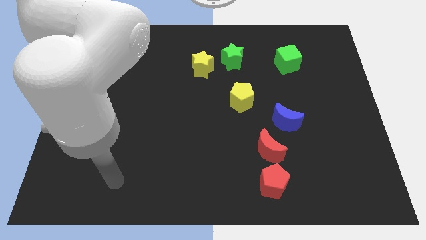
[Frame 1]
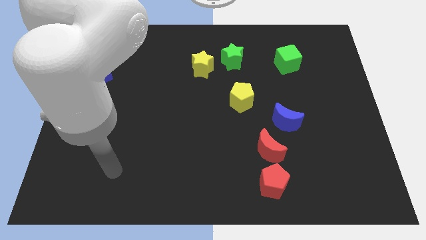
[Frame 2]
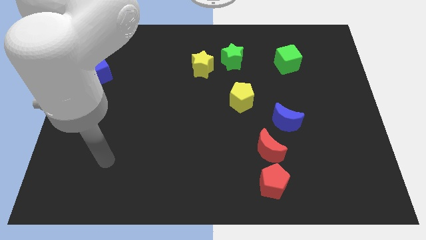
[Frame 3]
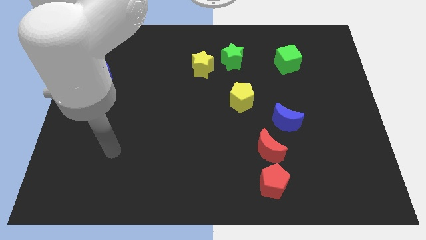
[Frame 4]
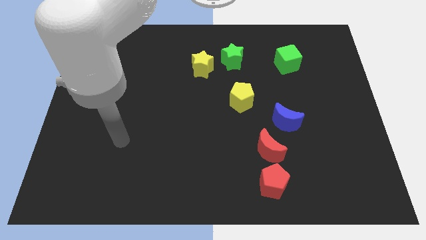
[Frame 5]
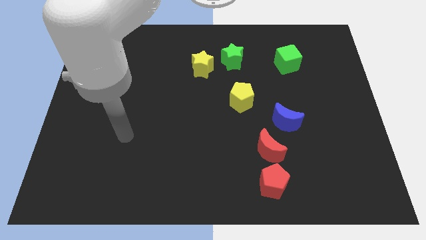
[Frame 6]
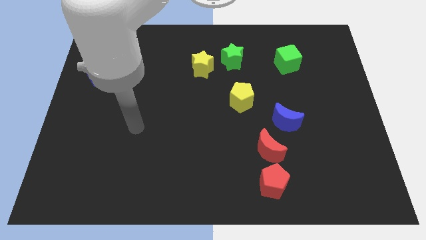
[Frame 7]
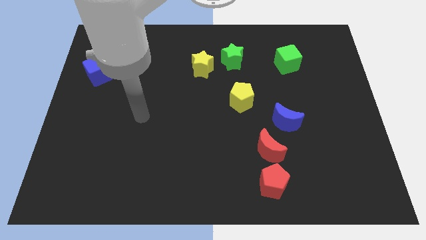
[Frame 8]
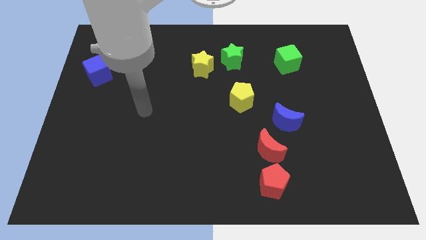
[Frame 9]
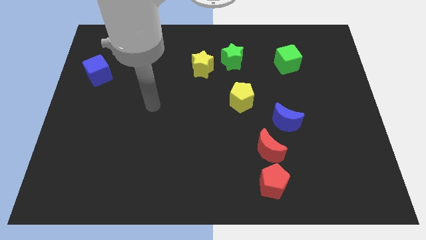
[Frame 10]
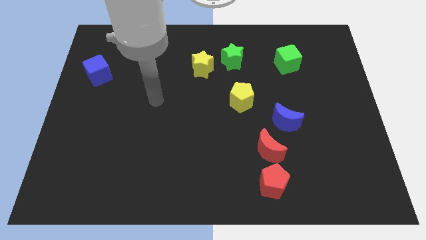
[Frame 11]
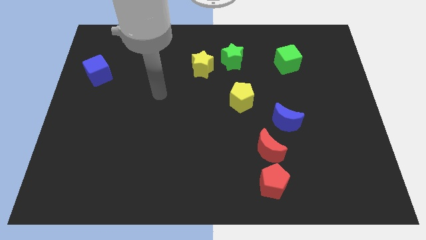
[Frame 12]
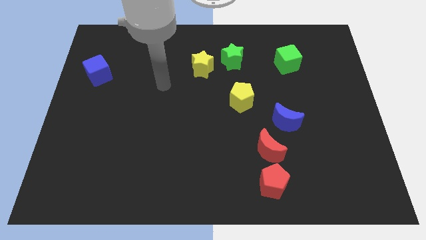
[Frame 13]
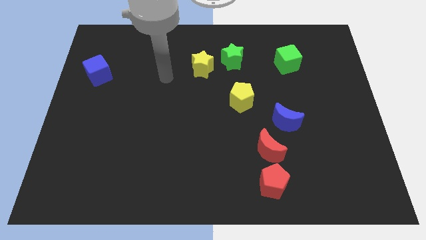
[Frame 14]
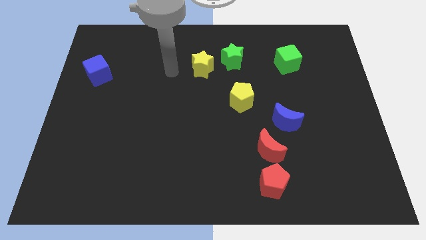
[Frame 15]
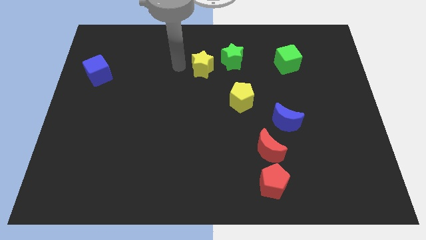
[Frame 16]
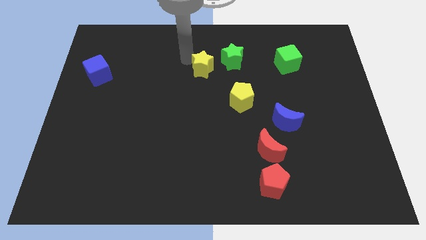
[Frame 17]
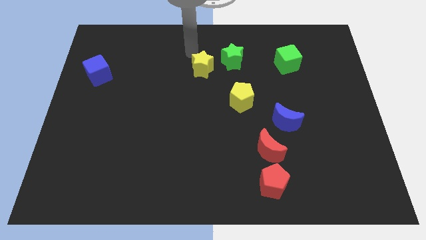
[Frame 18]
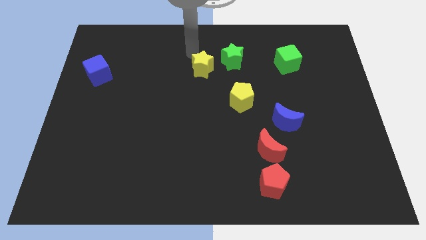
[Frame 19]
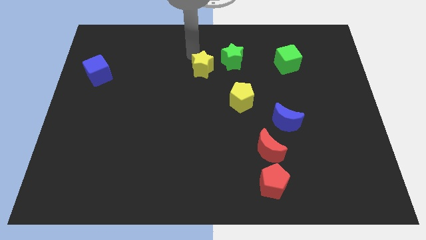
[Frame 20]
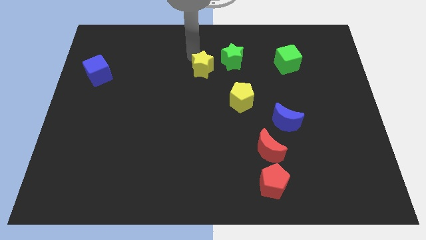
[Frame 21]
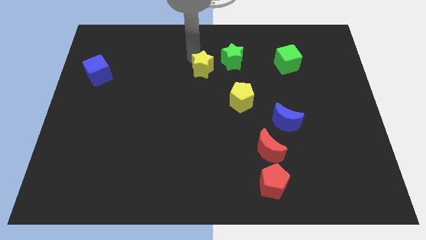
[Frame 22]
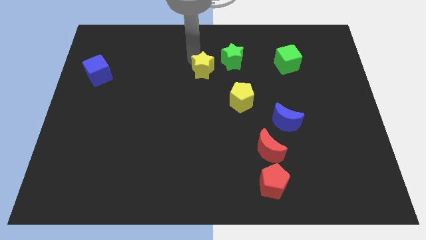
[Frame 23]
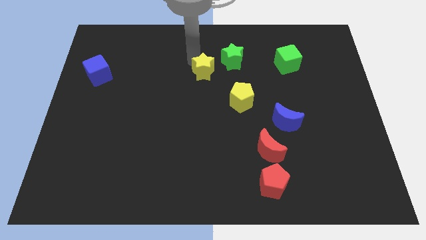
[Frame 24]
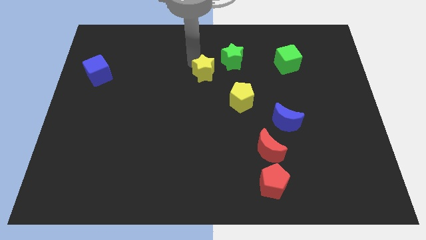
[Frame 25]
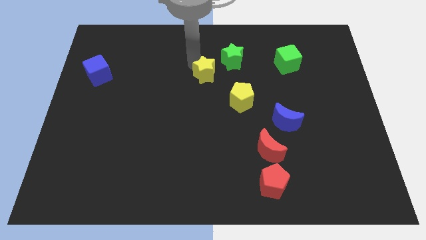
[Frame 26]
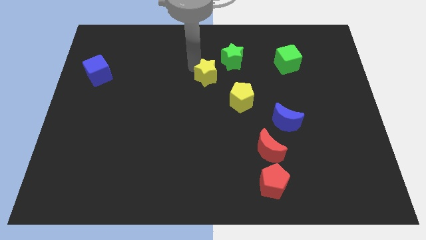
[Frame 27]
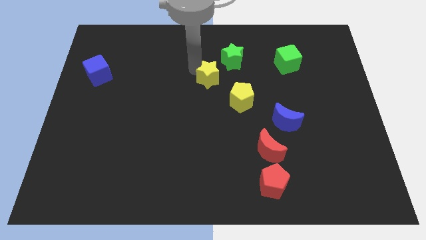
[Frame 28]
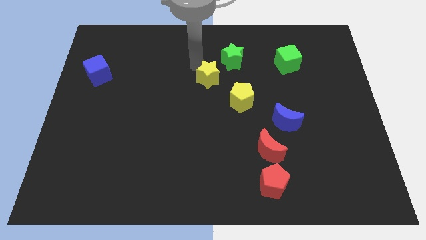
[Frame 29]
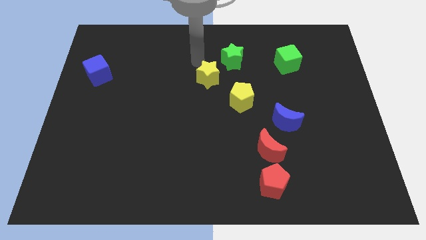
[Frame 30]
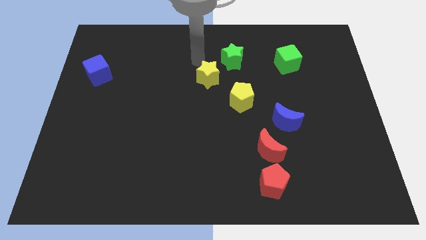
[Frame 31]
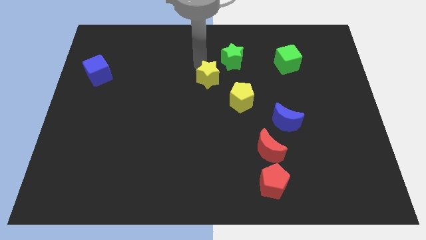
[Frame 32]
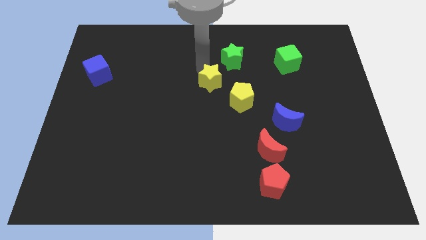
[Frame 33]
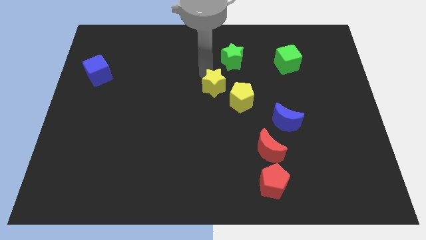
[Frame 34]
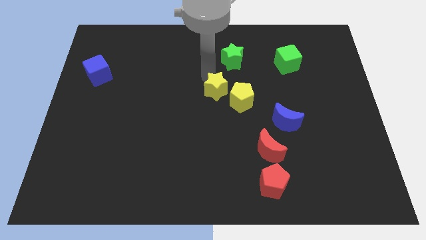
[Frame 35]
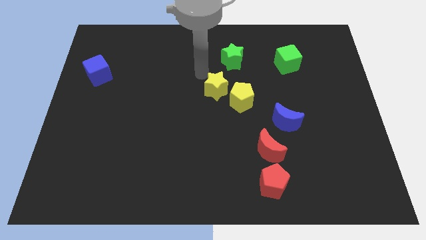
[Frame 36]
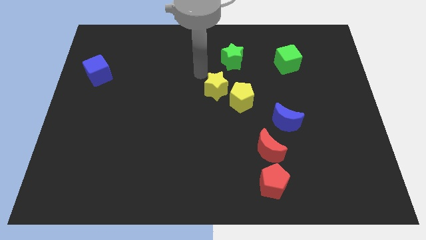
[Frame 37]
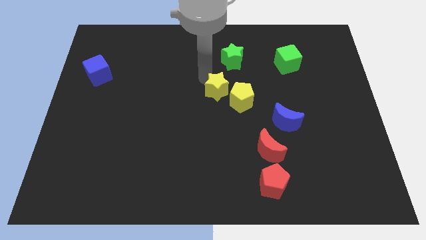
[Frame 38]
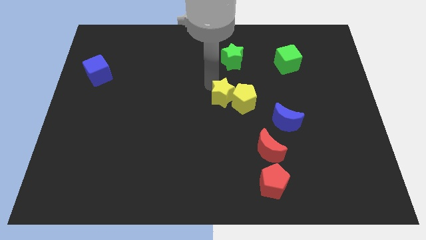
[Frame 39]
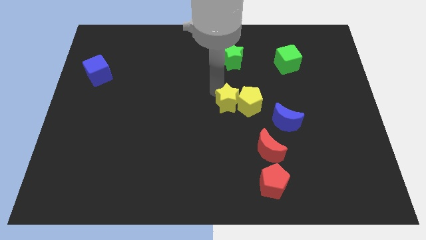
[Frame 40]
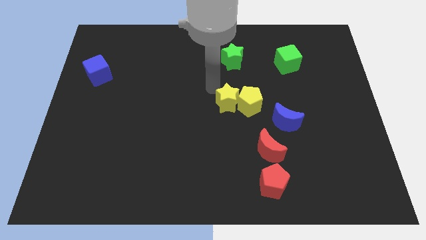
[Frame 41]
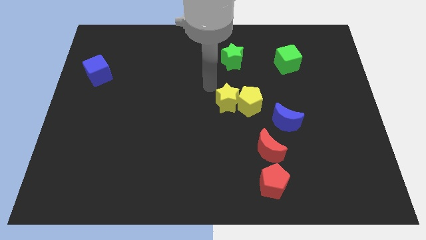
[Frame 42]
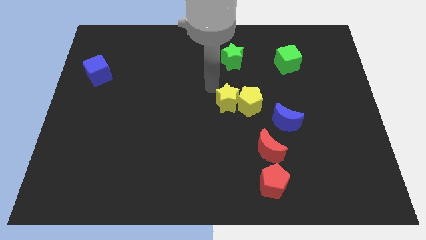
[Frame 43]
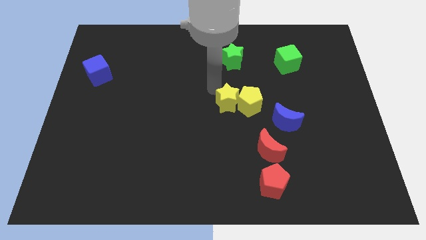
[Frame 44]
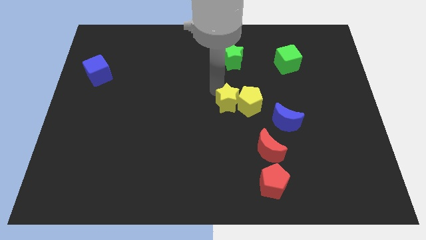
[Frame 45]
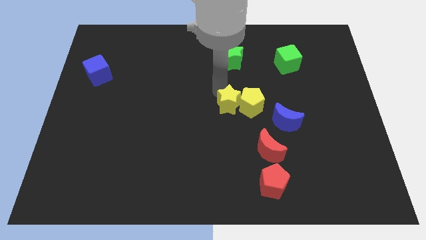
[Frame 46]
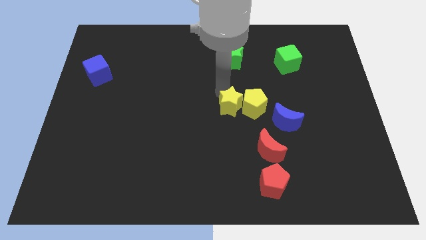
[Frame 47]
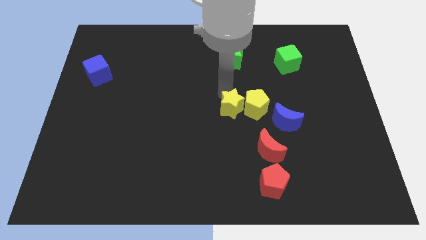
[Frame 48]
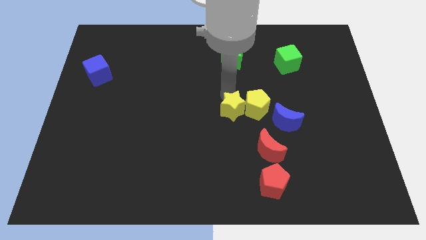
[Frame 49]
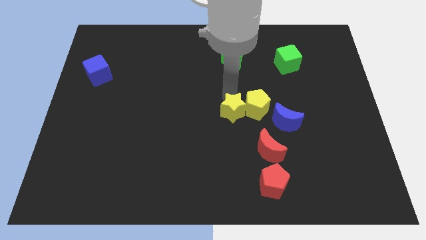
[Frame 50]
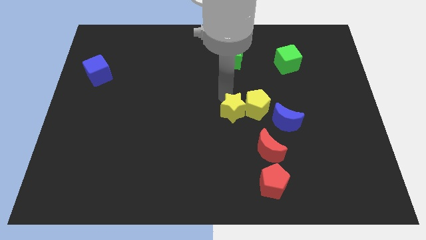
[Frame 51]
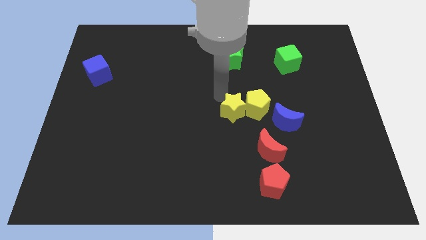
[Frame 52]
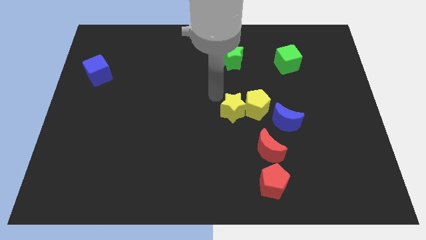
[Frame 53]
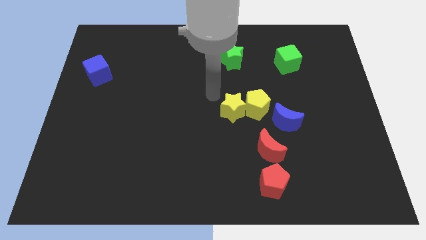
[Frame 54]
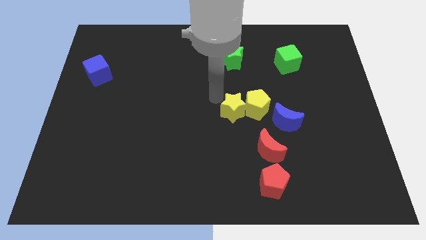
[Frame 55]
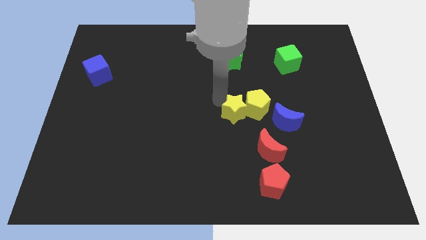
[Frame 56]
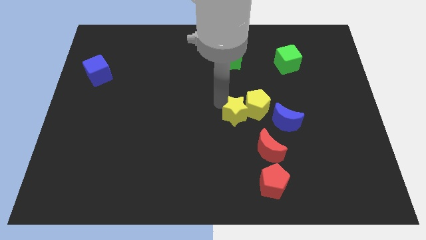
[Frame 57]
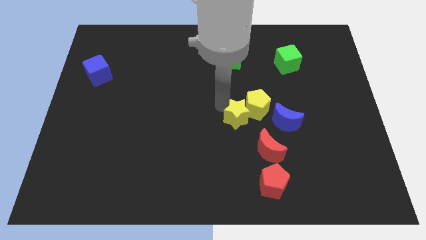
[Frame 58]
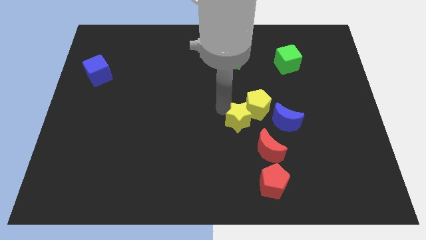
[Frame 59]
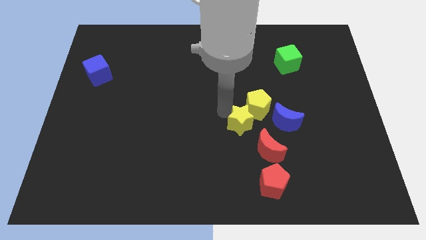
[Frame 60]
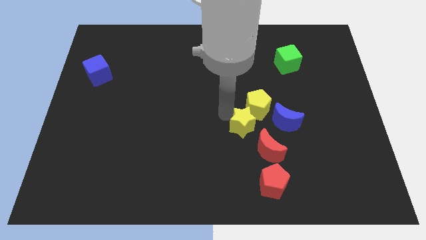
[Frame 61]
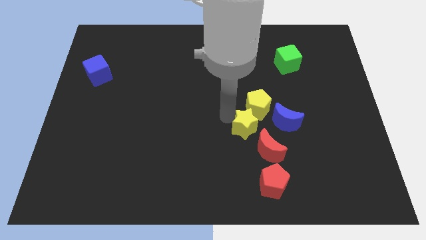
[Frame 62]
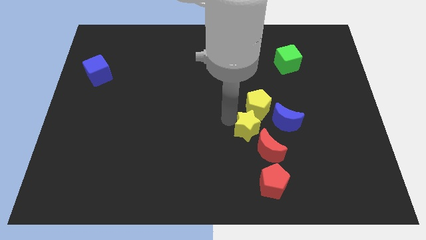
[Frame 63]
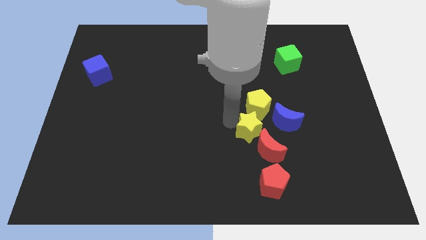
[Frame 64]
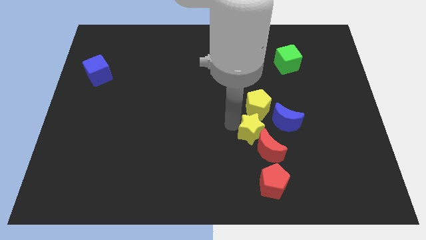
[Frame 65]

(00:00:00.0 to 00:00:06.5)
push the yellow star diagonally downwards and right

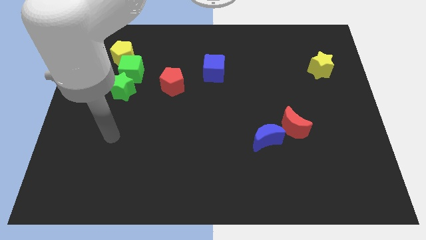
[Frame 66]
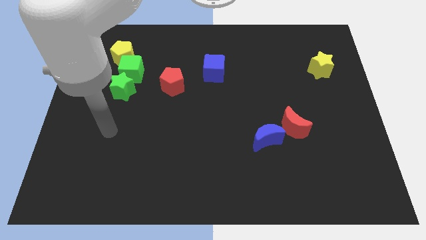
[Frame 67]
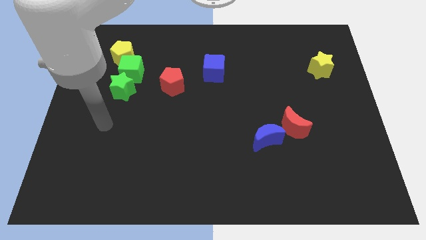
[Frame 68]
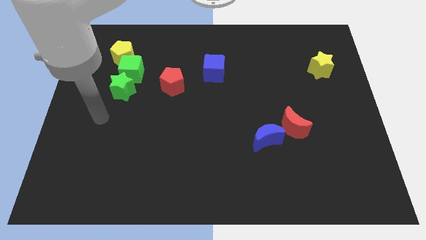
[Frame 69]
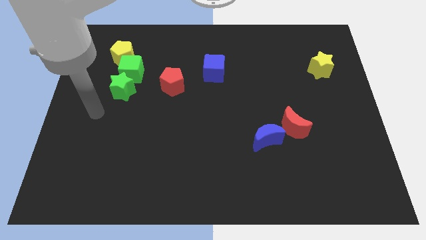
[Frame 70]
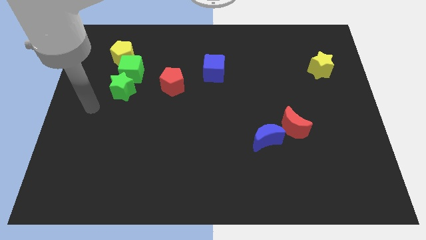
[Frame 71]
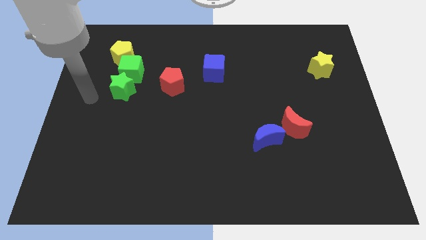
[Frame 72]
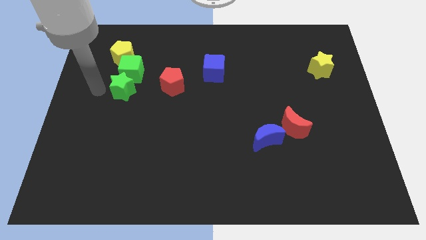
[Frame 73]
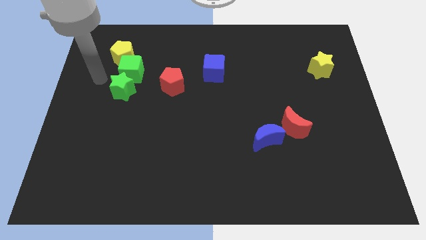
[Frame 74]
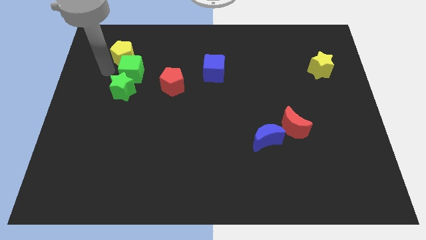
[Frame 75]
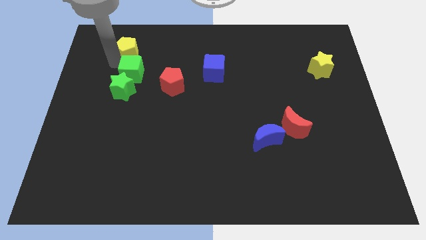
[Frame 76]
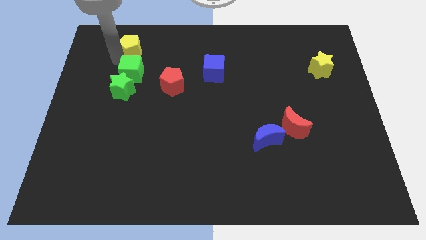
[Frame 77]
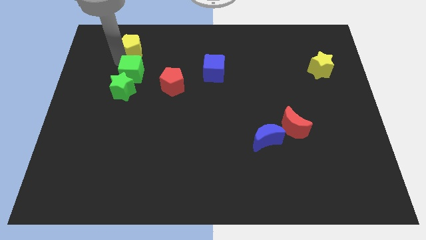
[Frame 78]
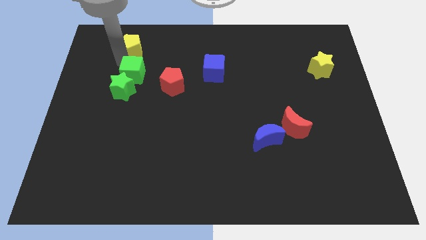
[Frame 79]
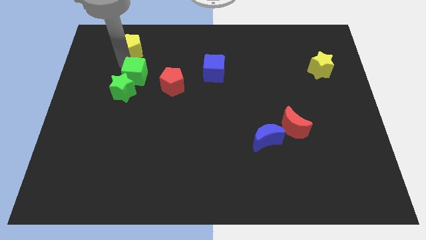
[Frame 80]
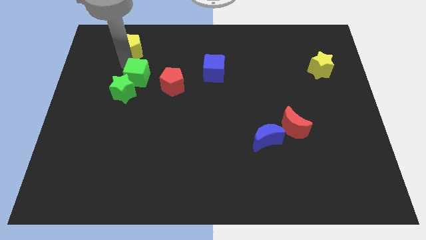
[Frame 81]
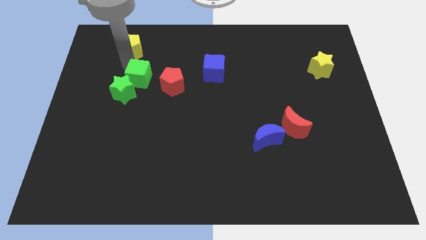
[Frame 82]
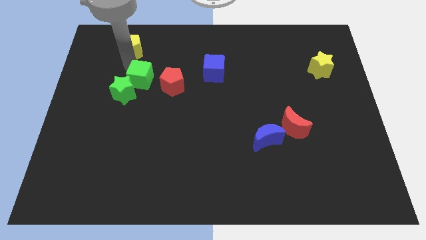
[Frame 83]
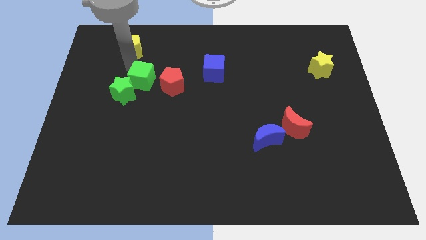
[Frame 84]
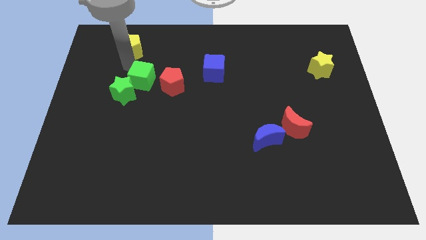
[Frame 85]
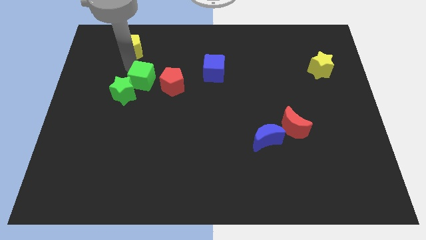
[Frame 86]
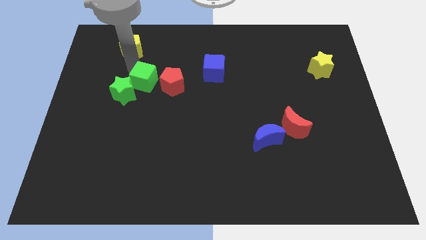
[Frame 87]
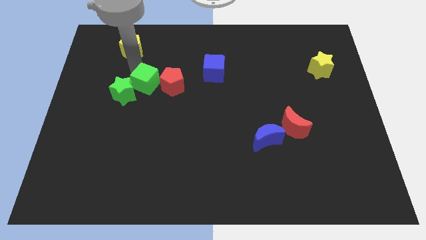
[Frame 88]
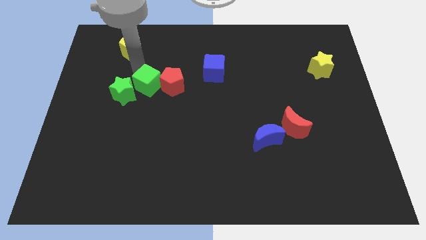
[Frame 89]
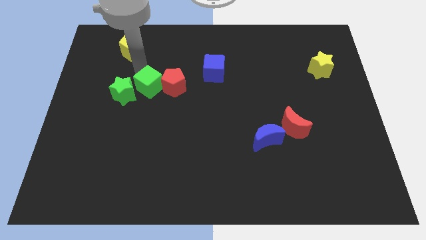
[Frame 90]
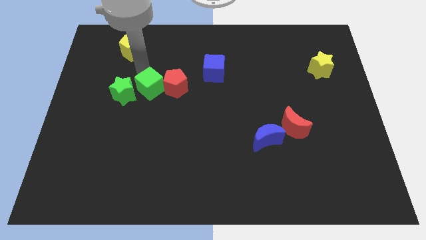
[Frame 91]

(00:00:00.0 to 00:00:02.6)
slightly slide the green cube downwards and right diagonally
